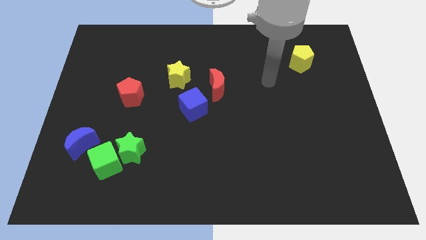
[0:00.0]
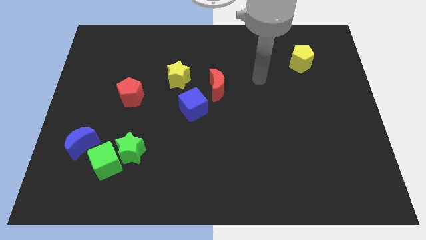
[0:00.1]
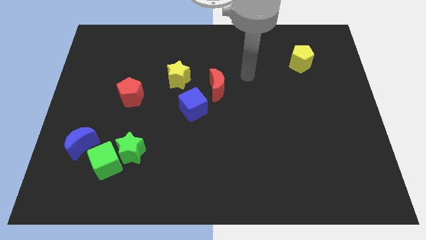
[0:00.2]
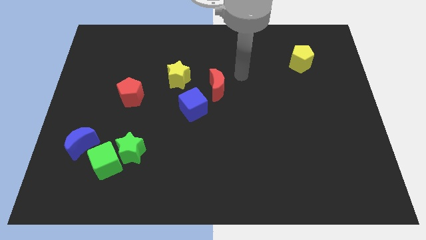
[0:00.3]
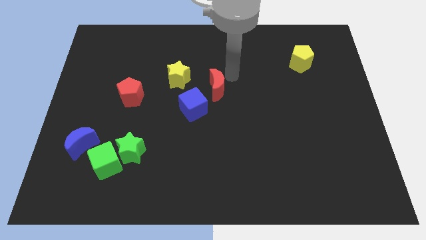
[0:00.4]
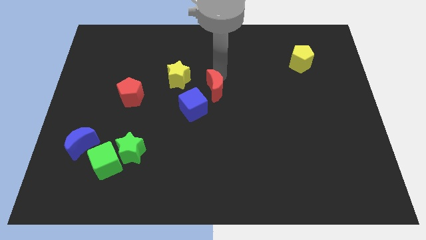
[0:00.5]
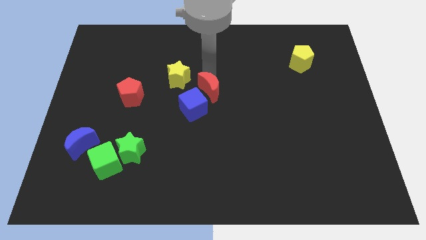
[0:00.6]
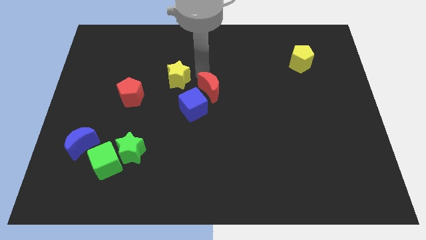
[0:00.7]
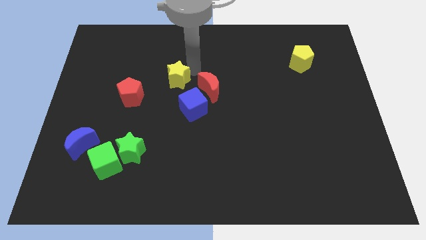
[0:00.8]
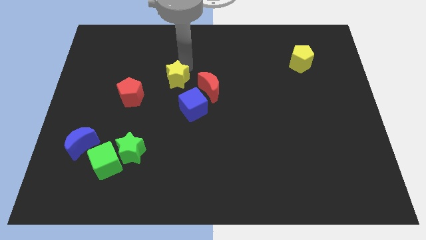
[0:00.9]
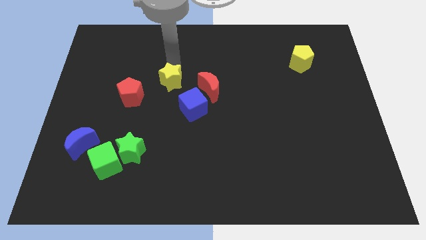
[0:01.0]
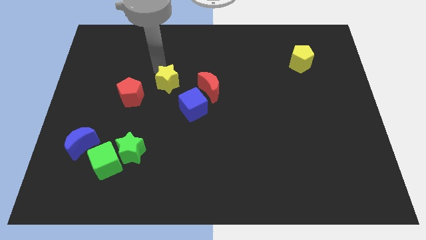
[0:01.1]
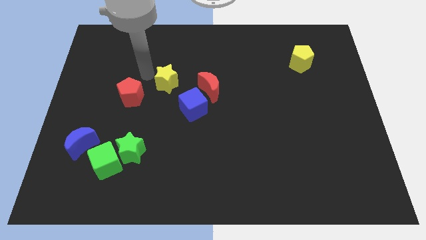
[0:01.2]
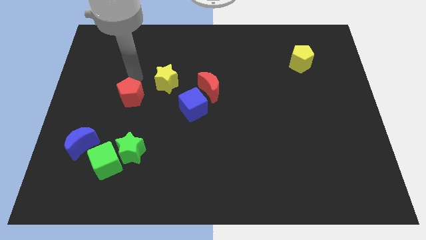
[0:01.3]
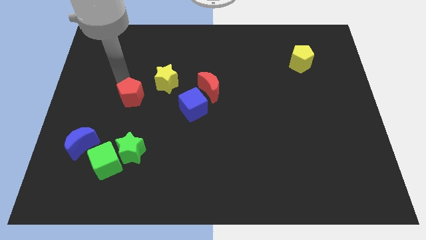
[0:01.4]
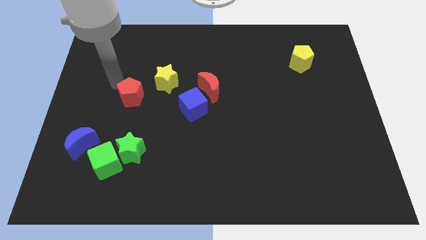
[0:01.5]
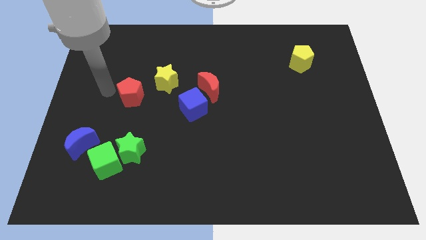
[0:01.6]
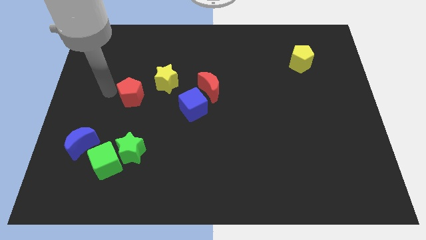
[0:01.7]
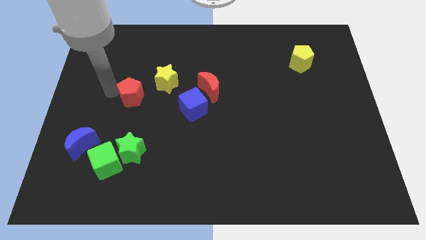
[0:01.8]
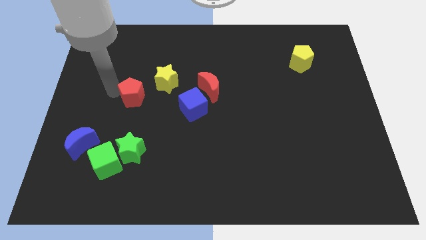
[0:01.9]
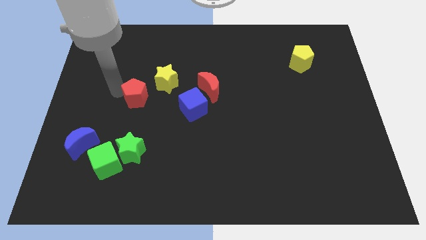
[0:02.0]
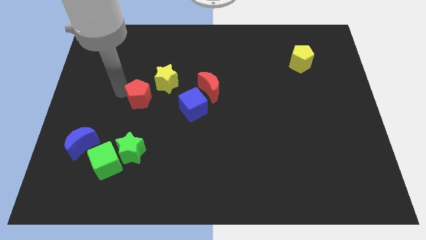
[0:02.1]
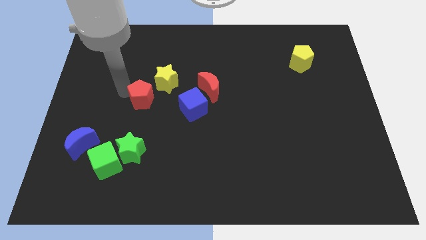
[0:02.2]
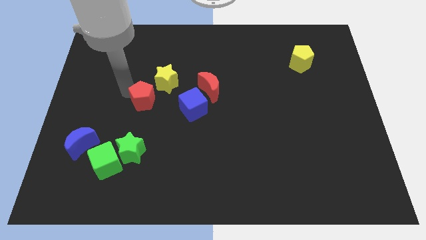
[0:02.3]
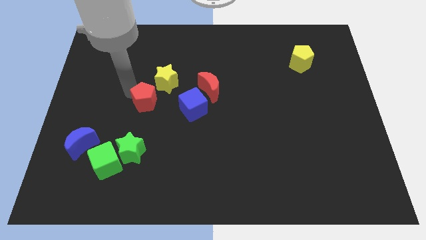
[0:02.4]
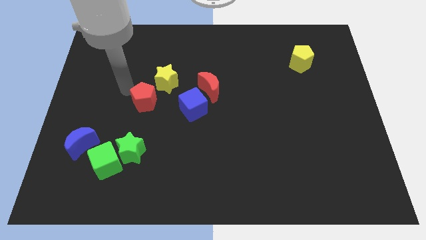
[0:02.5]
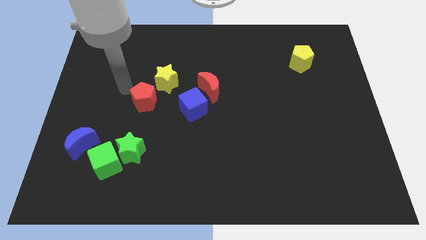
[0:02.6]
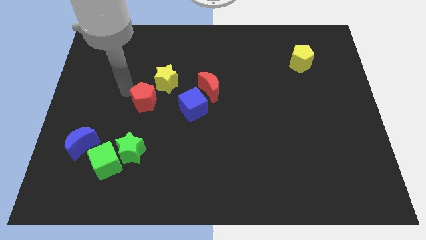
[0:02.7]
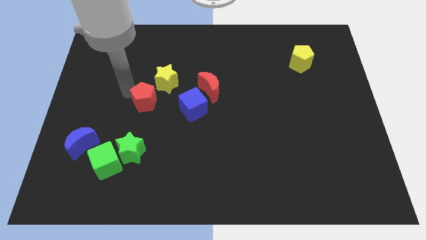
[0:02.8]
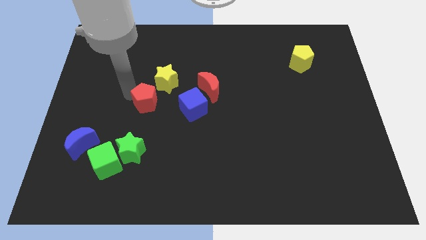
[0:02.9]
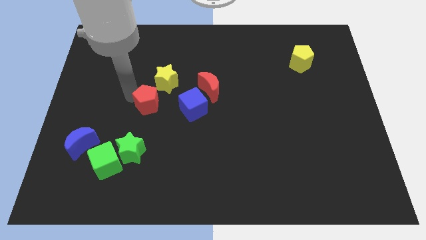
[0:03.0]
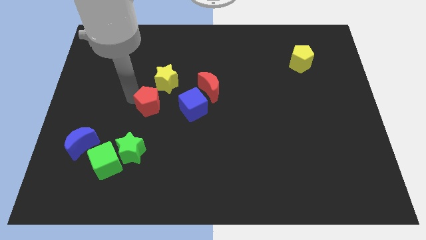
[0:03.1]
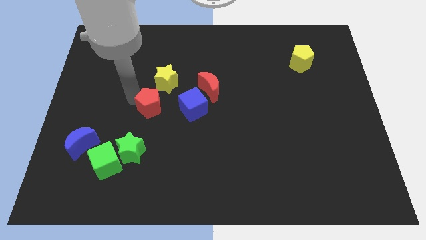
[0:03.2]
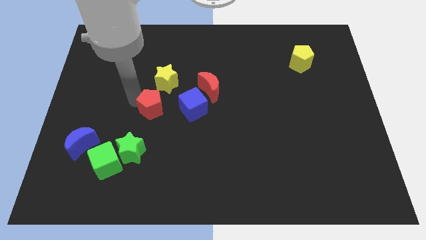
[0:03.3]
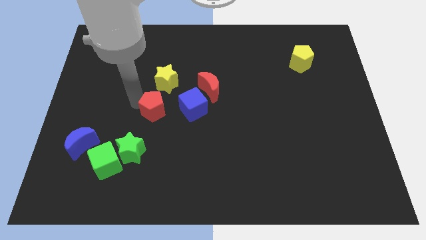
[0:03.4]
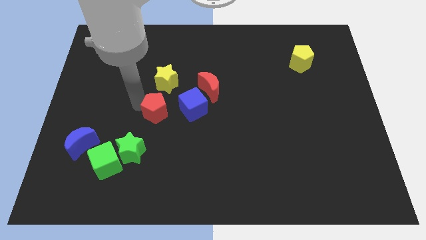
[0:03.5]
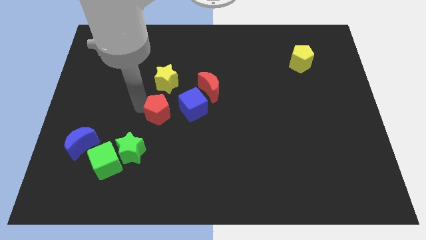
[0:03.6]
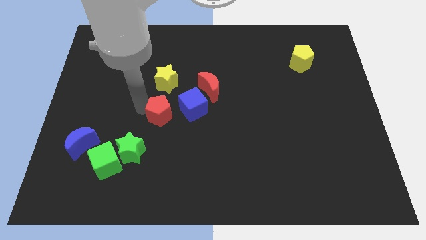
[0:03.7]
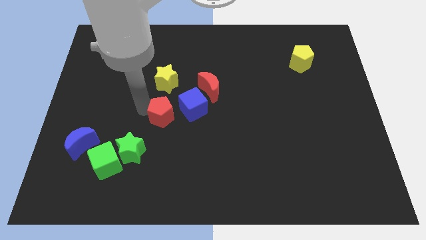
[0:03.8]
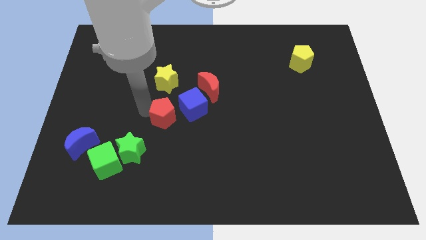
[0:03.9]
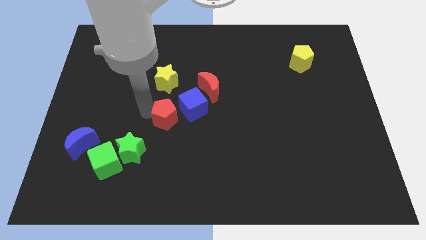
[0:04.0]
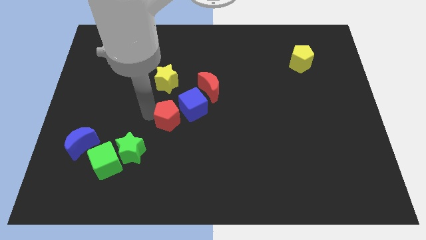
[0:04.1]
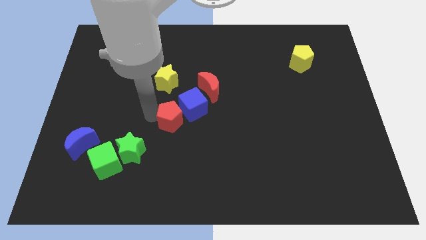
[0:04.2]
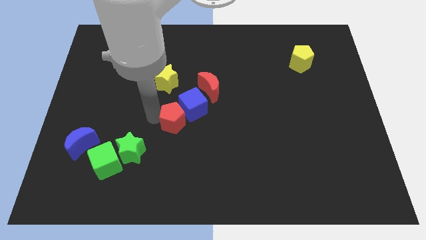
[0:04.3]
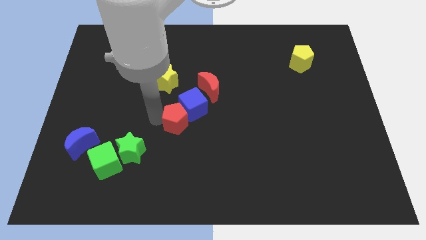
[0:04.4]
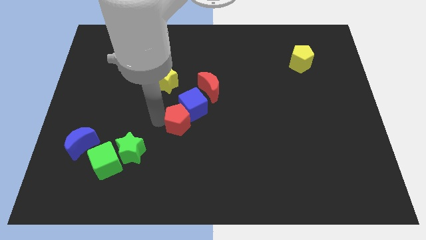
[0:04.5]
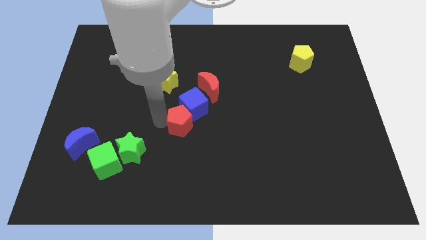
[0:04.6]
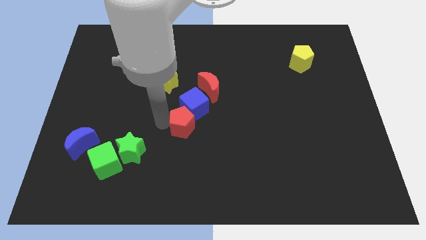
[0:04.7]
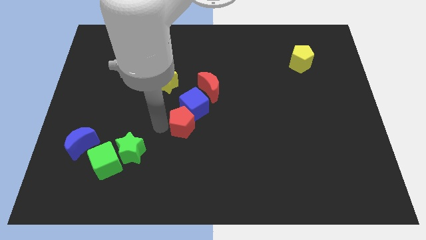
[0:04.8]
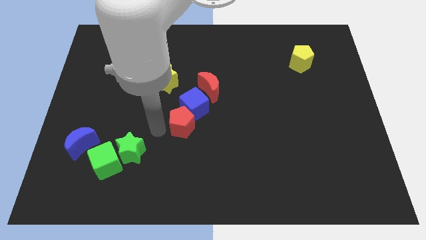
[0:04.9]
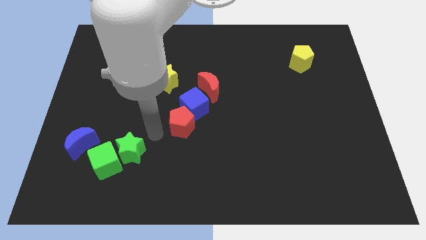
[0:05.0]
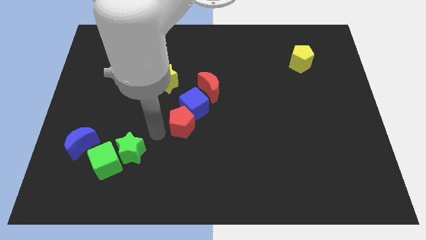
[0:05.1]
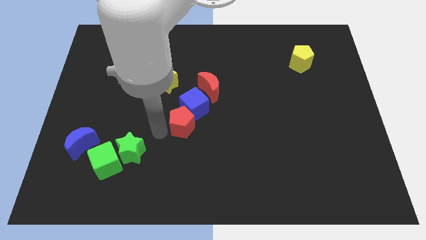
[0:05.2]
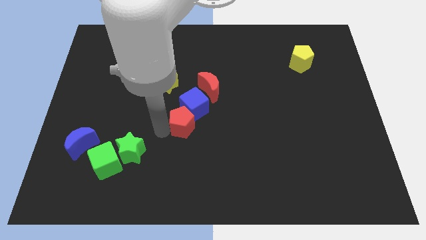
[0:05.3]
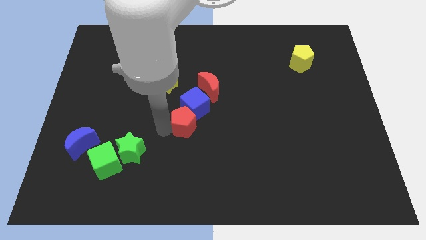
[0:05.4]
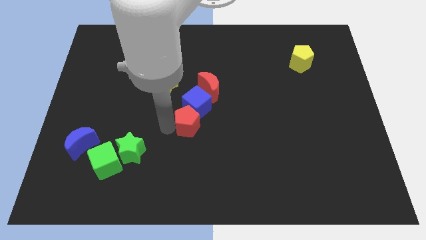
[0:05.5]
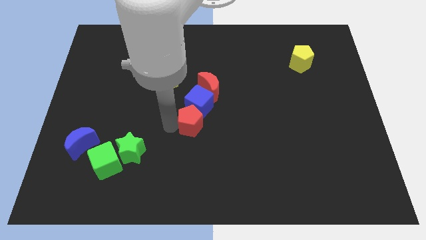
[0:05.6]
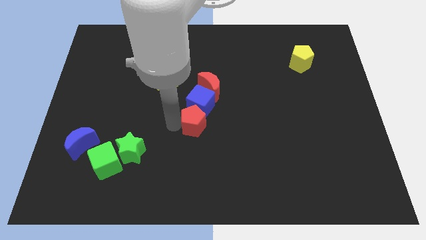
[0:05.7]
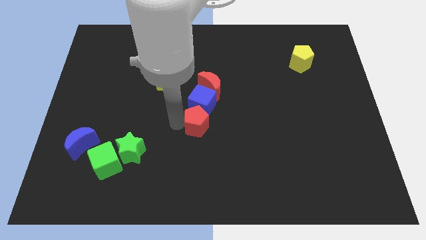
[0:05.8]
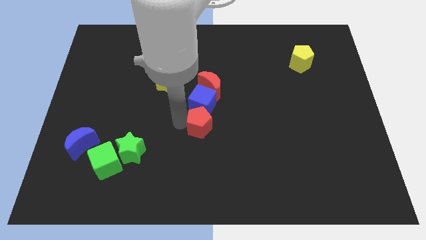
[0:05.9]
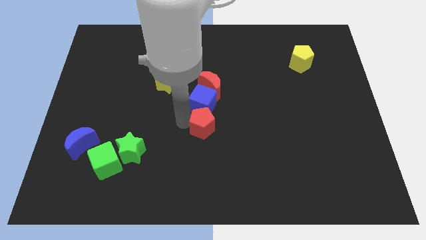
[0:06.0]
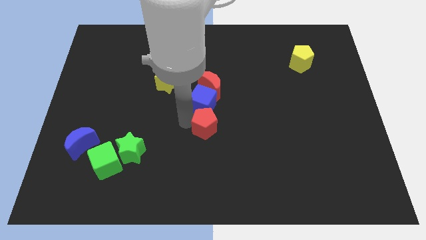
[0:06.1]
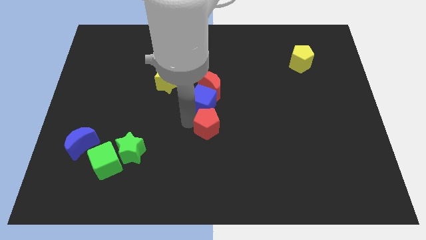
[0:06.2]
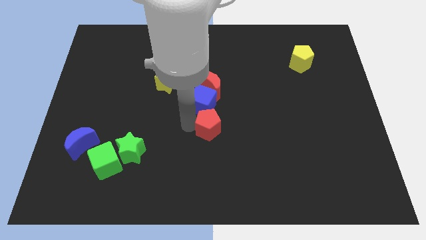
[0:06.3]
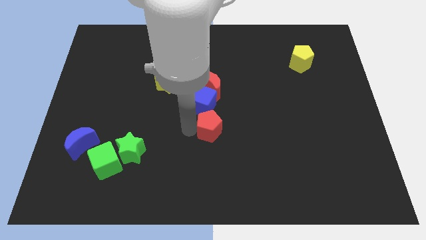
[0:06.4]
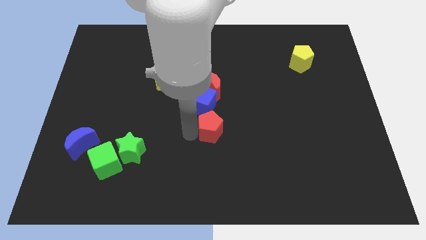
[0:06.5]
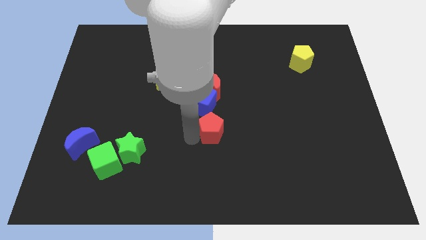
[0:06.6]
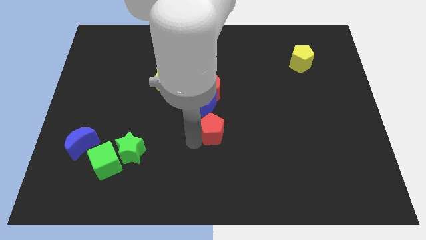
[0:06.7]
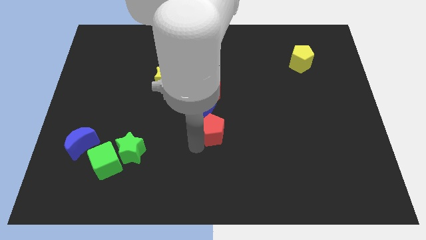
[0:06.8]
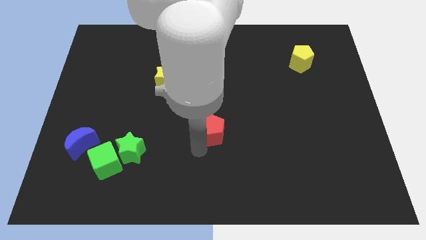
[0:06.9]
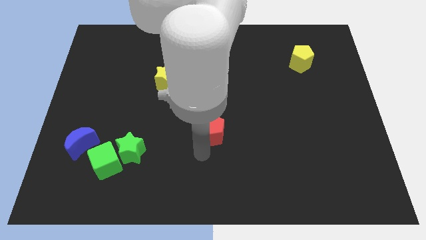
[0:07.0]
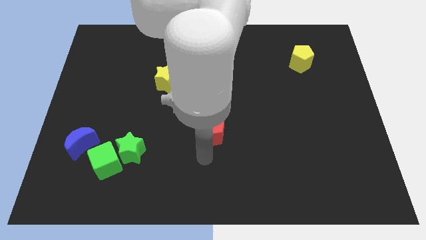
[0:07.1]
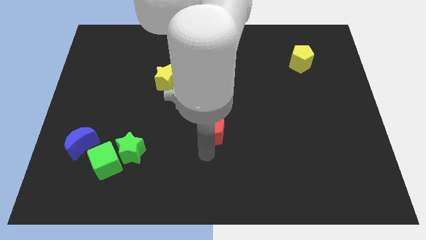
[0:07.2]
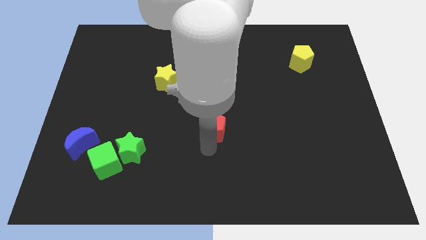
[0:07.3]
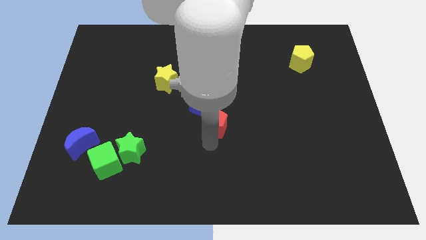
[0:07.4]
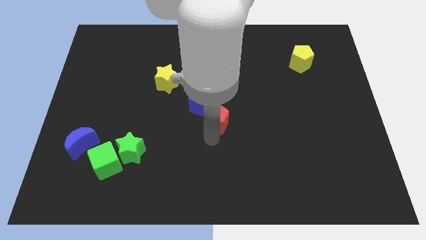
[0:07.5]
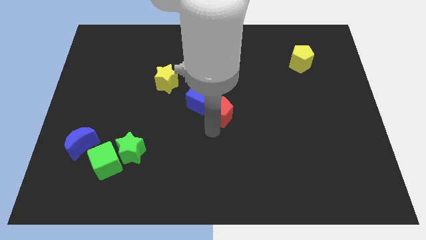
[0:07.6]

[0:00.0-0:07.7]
push the red pentagon to the right
